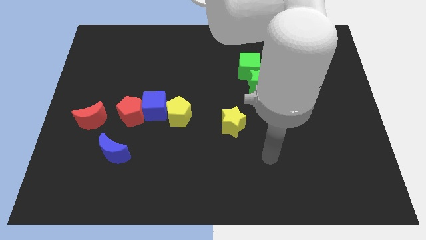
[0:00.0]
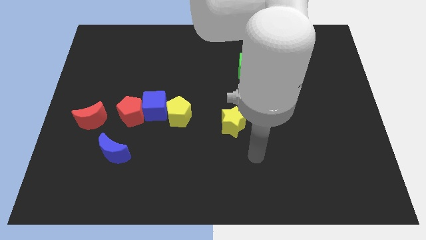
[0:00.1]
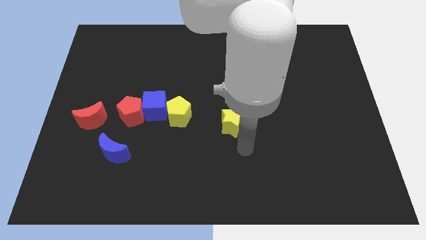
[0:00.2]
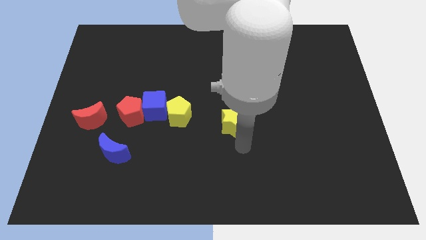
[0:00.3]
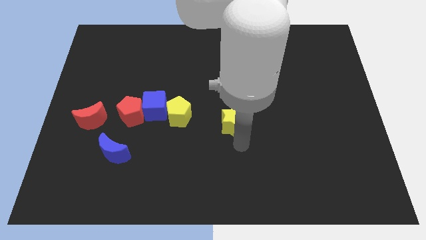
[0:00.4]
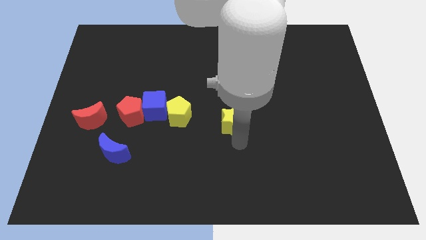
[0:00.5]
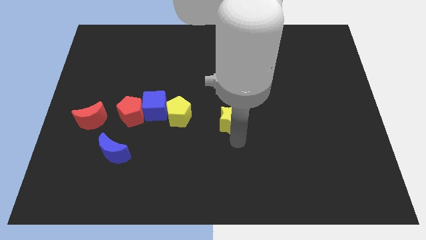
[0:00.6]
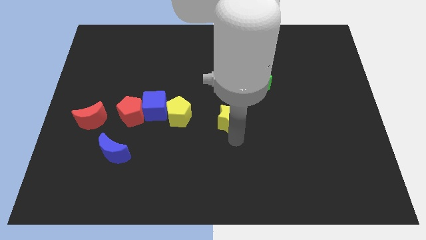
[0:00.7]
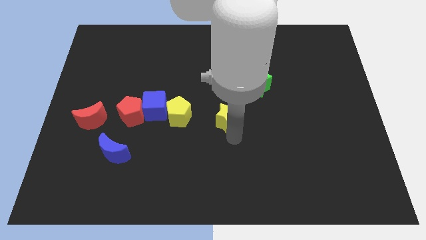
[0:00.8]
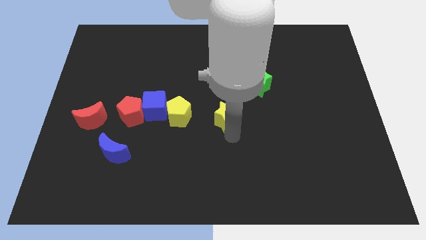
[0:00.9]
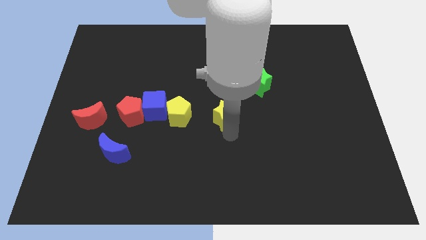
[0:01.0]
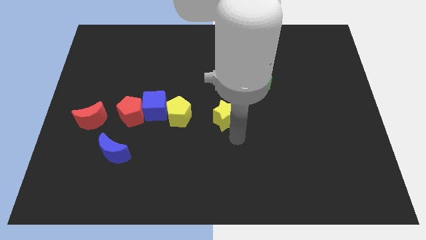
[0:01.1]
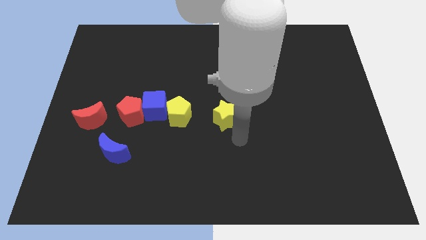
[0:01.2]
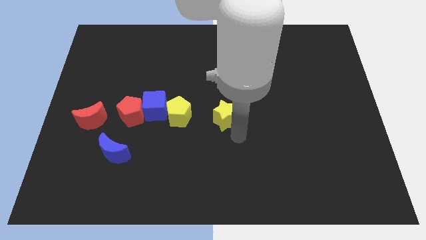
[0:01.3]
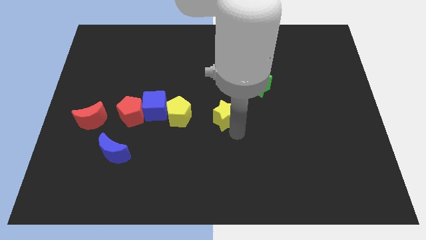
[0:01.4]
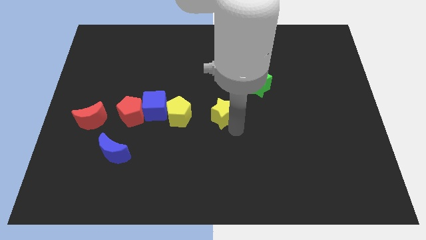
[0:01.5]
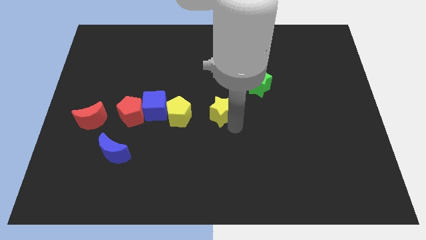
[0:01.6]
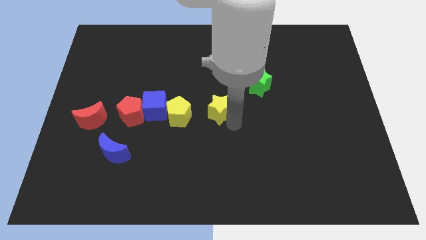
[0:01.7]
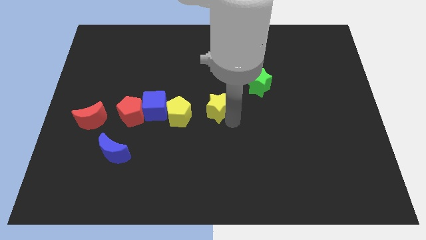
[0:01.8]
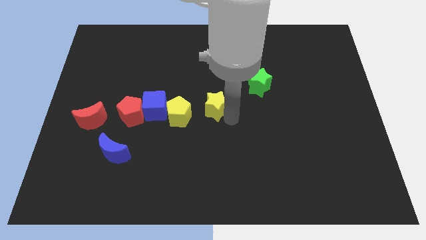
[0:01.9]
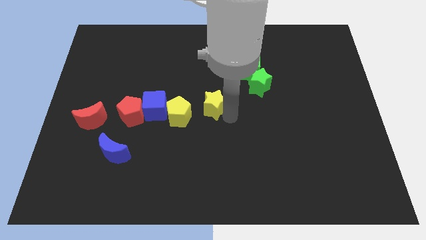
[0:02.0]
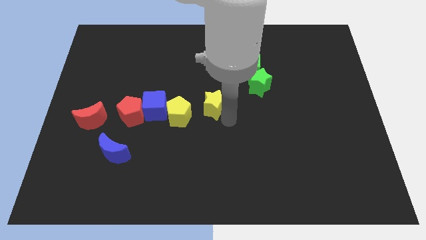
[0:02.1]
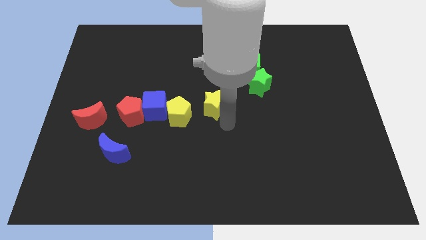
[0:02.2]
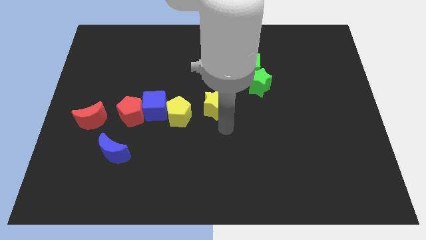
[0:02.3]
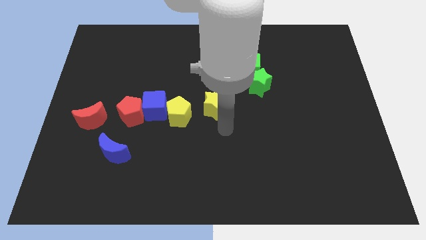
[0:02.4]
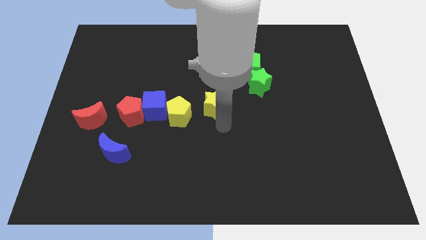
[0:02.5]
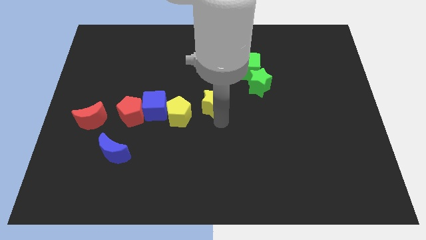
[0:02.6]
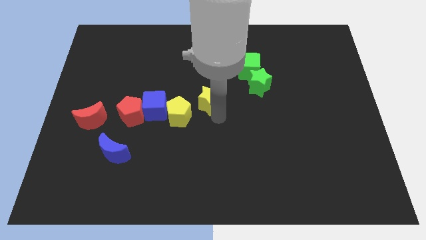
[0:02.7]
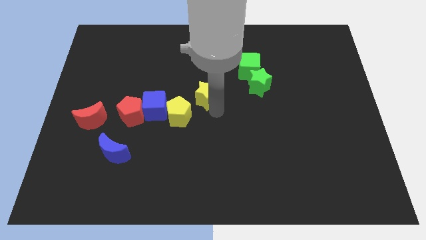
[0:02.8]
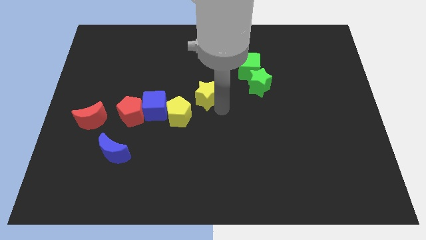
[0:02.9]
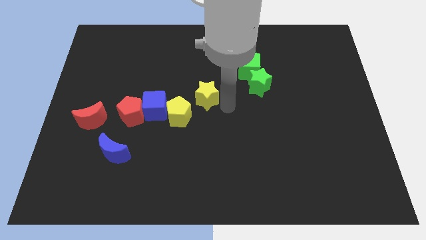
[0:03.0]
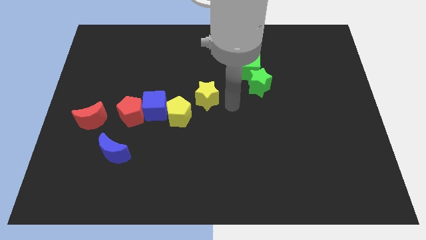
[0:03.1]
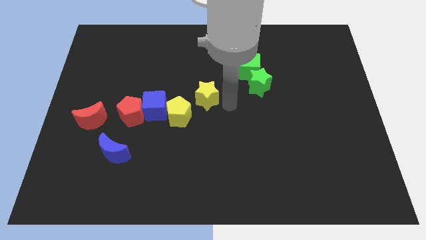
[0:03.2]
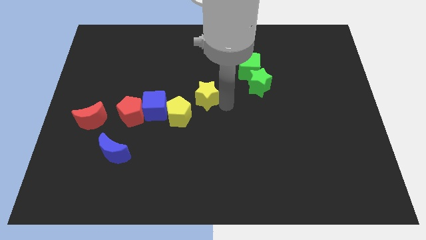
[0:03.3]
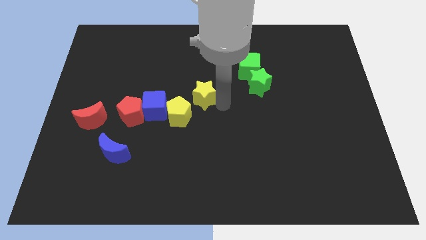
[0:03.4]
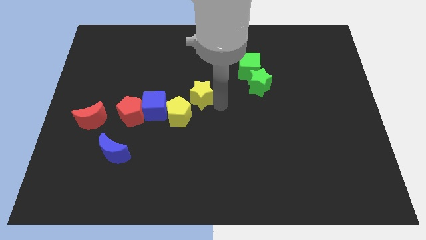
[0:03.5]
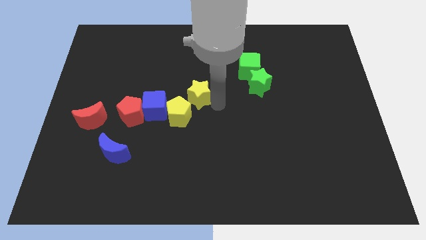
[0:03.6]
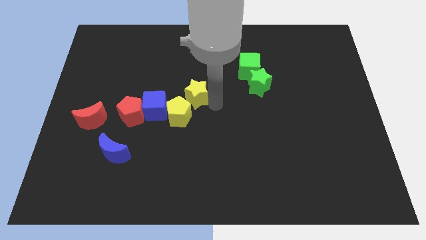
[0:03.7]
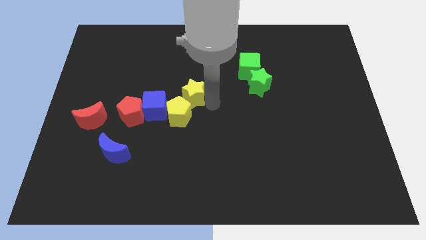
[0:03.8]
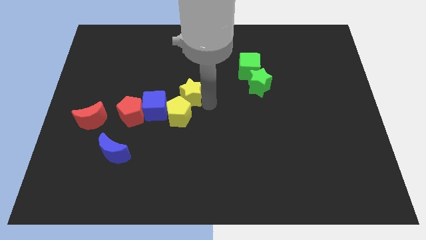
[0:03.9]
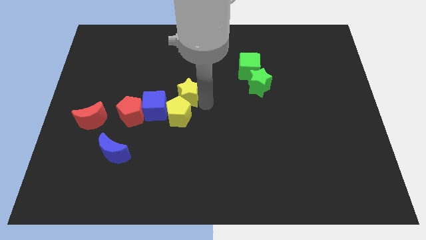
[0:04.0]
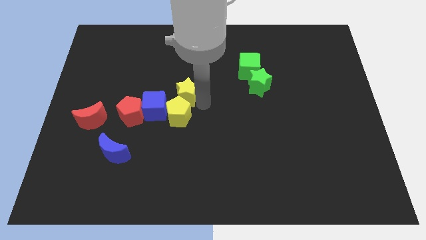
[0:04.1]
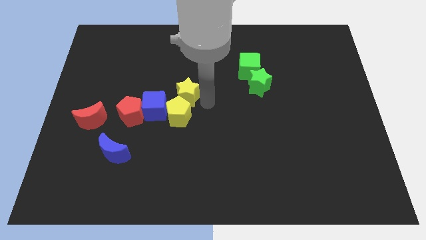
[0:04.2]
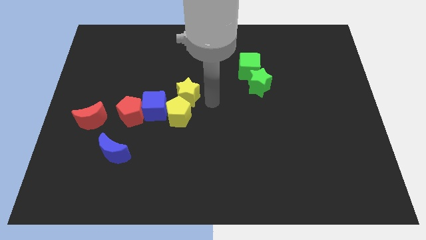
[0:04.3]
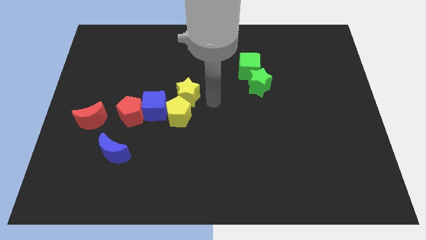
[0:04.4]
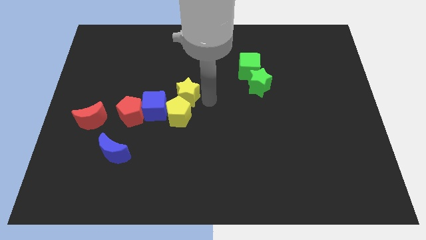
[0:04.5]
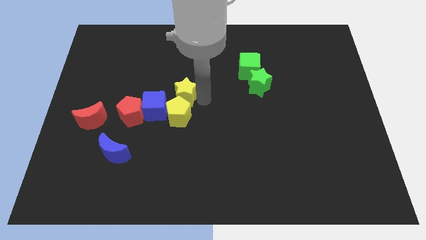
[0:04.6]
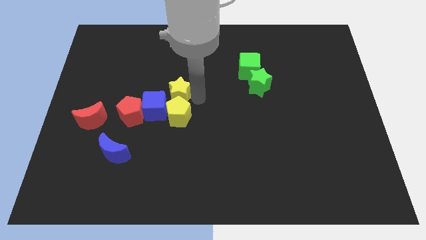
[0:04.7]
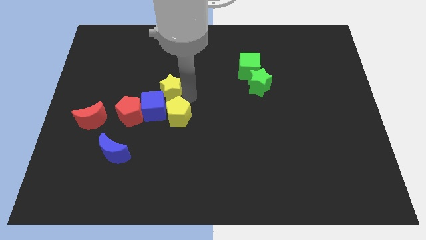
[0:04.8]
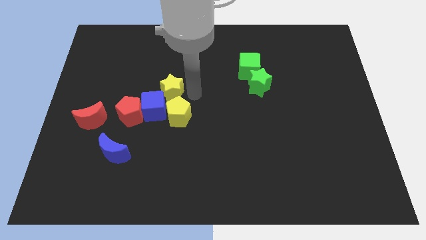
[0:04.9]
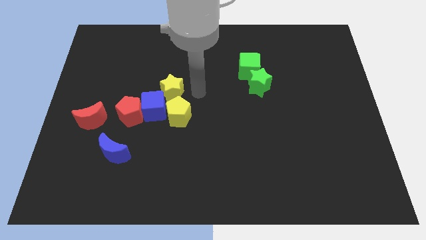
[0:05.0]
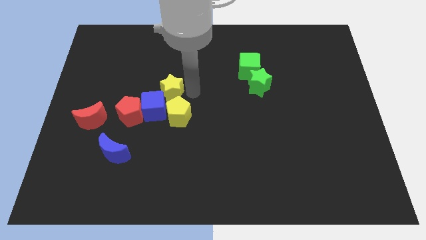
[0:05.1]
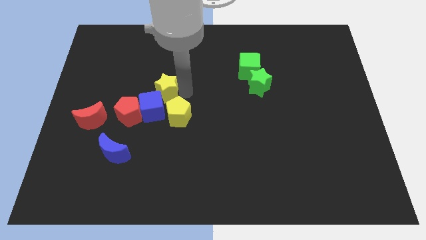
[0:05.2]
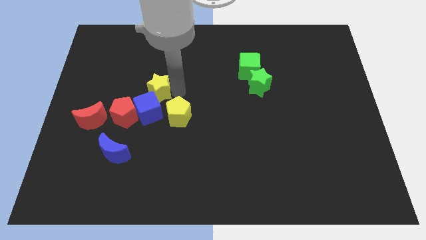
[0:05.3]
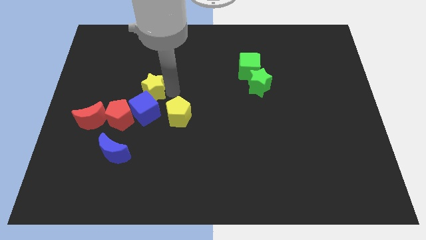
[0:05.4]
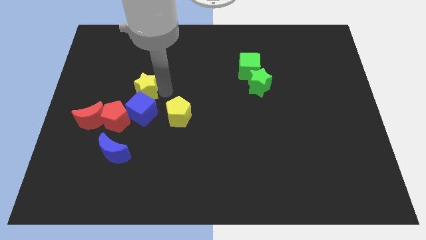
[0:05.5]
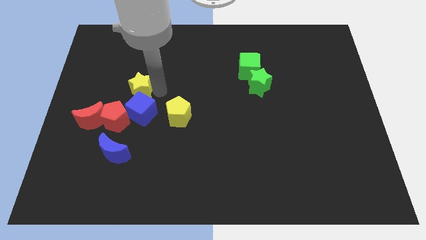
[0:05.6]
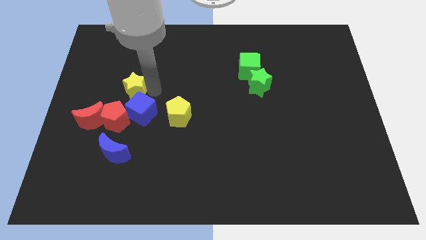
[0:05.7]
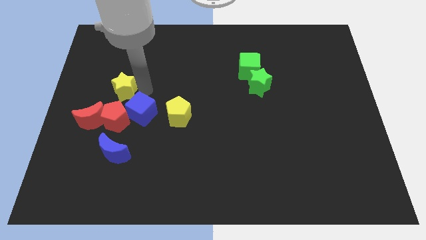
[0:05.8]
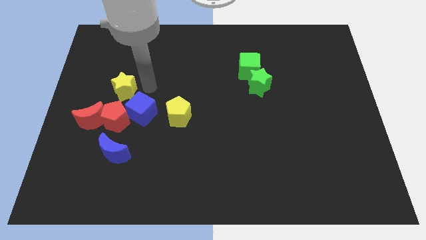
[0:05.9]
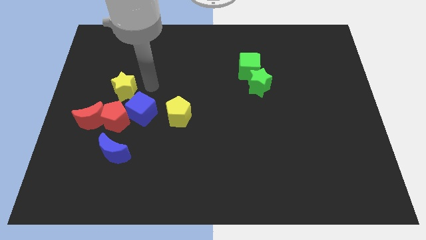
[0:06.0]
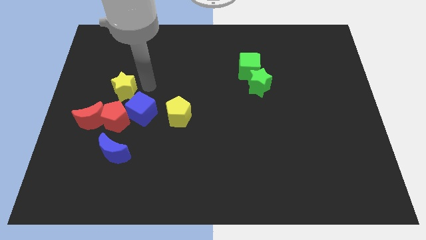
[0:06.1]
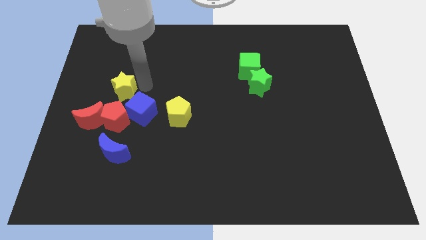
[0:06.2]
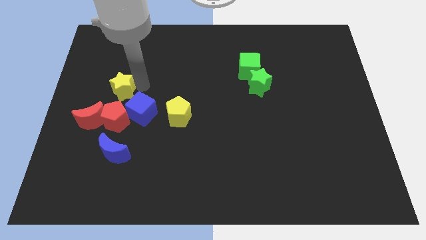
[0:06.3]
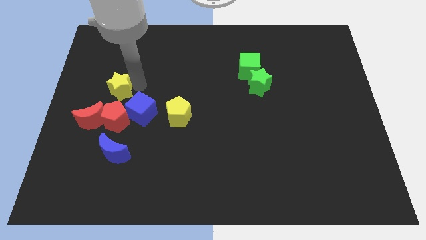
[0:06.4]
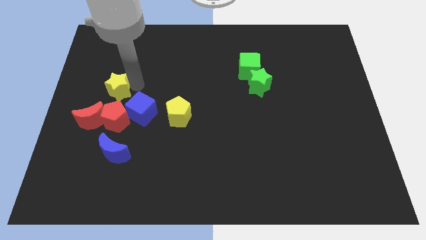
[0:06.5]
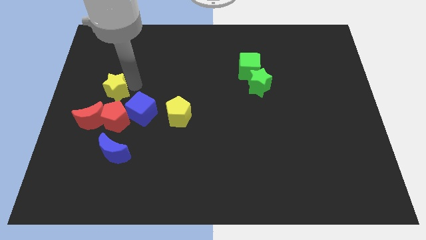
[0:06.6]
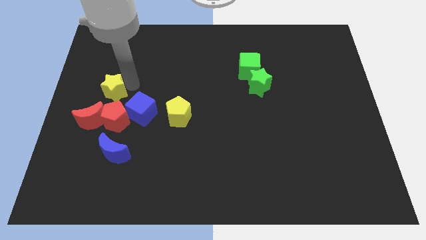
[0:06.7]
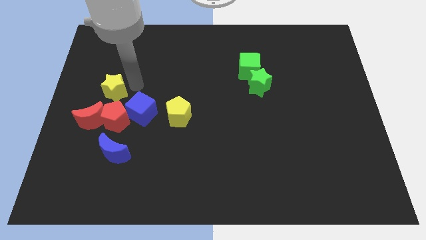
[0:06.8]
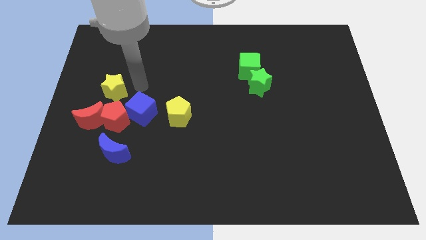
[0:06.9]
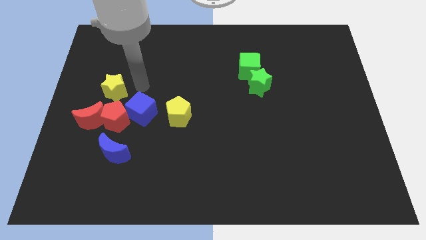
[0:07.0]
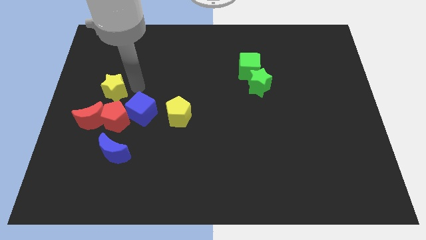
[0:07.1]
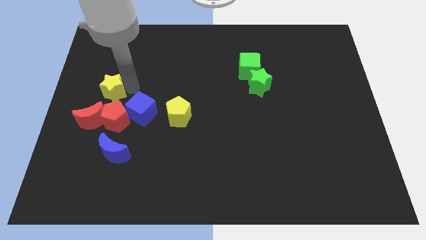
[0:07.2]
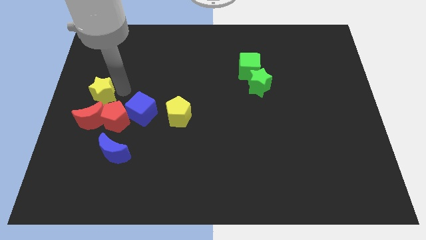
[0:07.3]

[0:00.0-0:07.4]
push the yellow star to the left side
